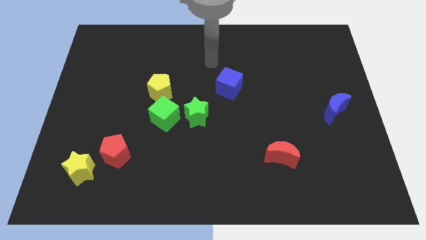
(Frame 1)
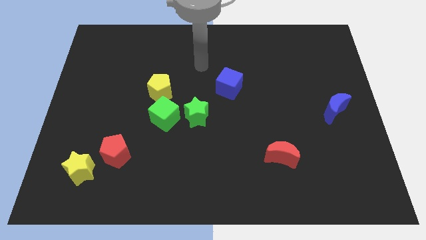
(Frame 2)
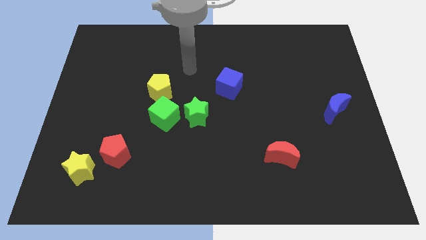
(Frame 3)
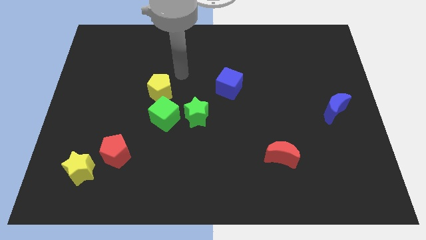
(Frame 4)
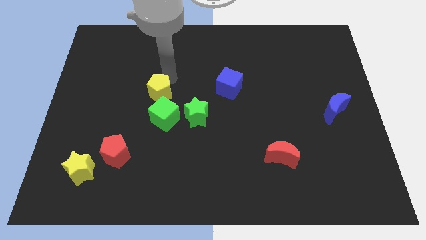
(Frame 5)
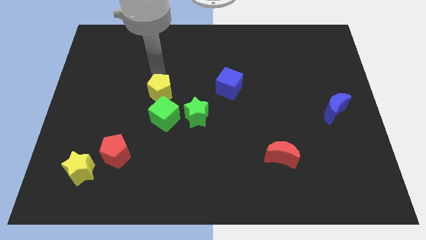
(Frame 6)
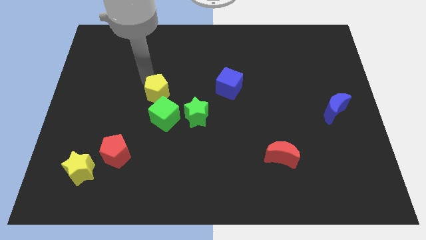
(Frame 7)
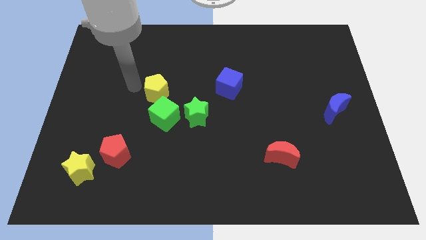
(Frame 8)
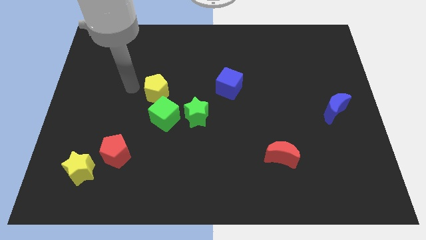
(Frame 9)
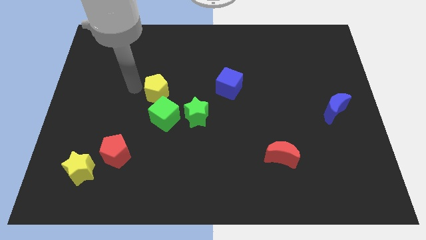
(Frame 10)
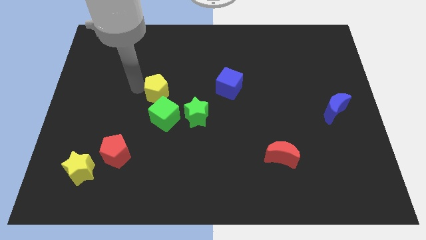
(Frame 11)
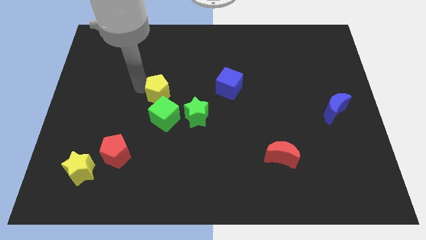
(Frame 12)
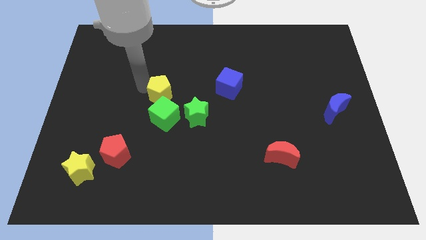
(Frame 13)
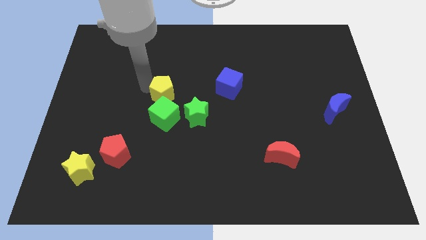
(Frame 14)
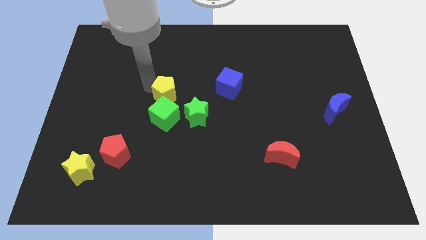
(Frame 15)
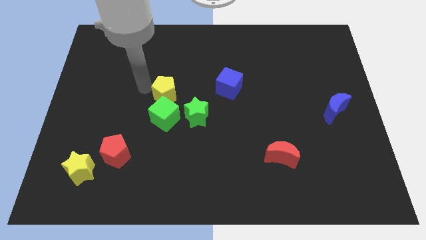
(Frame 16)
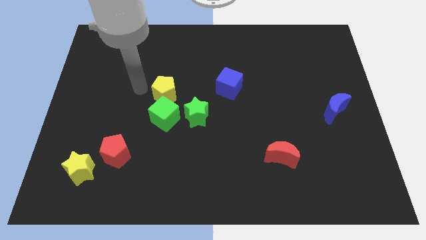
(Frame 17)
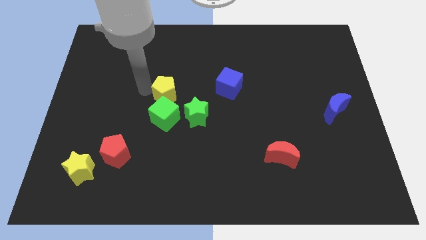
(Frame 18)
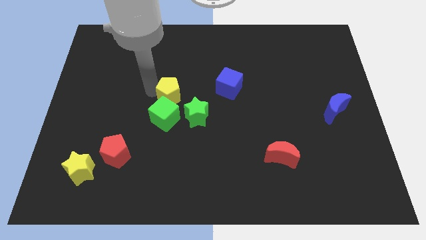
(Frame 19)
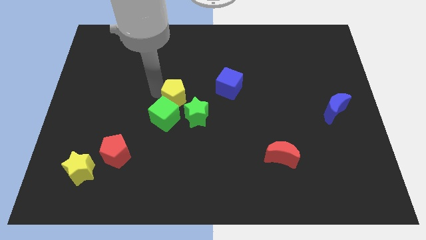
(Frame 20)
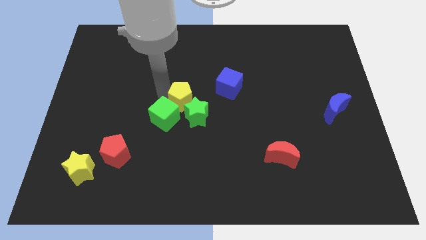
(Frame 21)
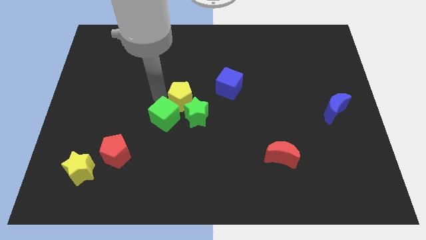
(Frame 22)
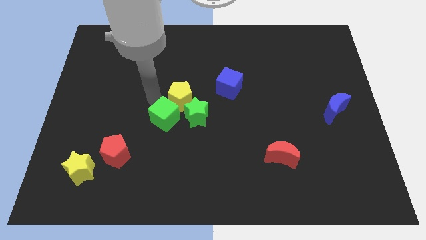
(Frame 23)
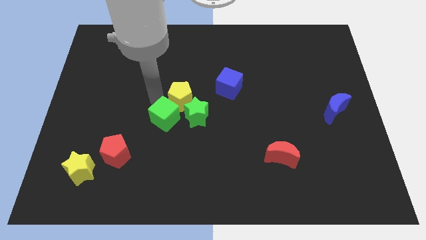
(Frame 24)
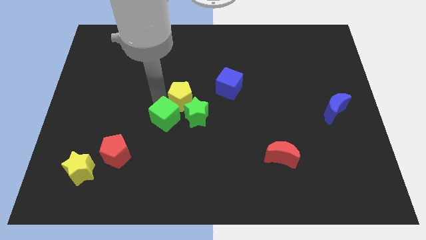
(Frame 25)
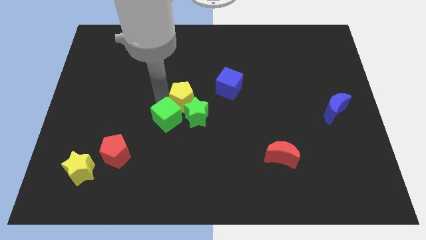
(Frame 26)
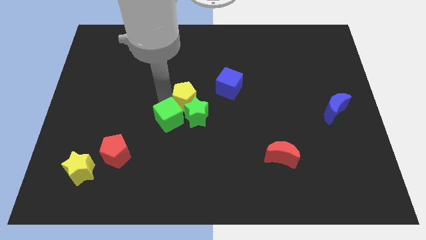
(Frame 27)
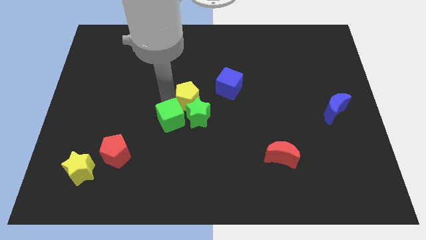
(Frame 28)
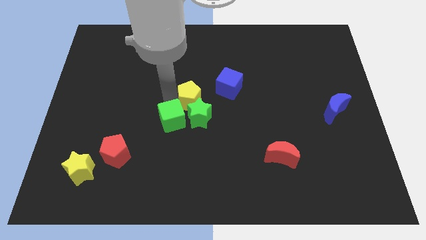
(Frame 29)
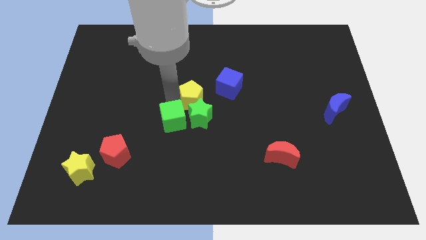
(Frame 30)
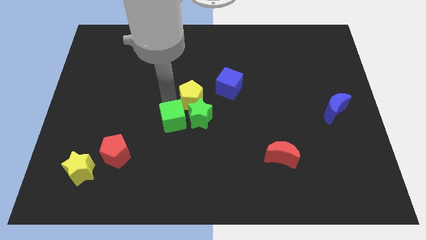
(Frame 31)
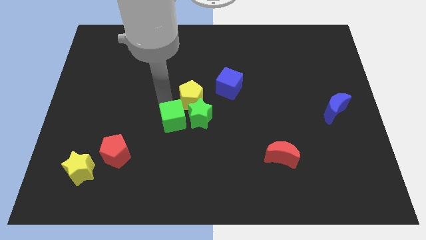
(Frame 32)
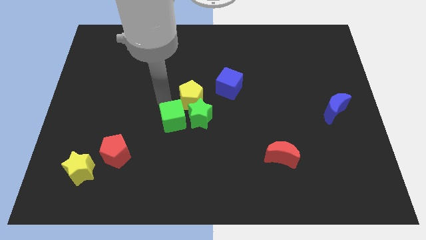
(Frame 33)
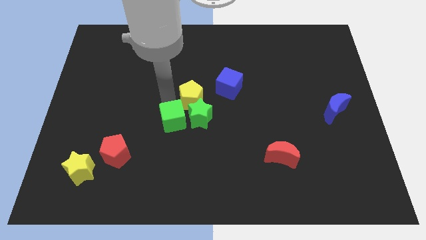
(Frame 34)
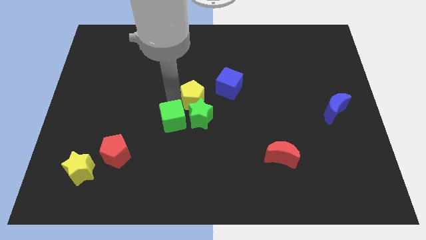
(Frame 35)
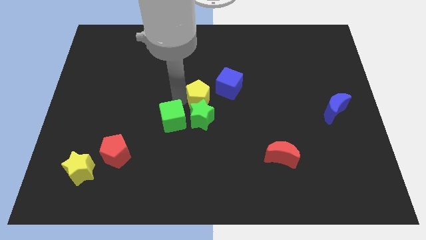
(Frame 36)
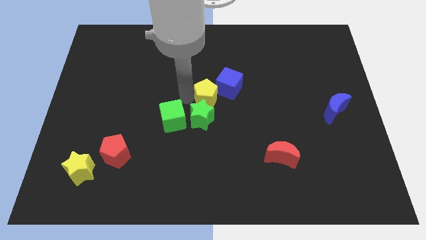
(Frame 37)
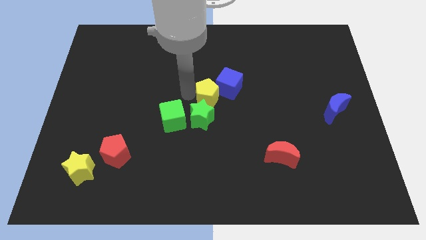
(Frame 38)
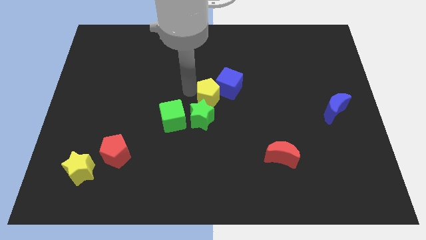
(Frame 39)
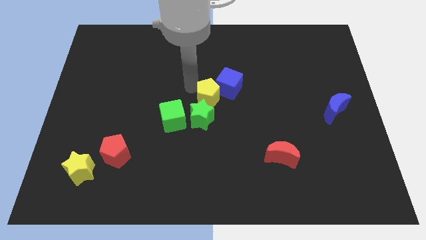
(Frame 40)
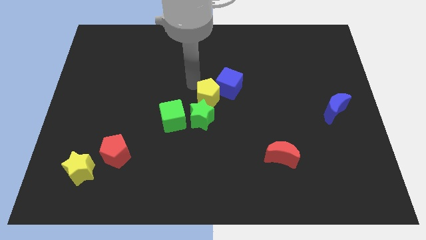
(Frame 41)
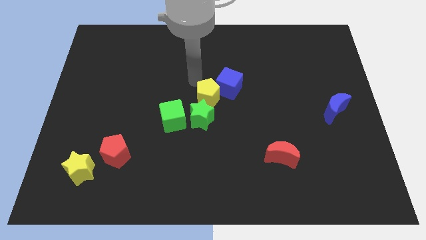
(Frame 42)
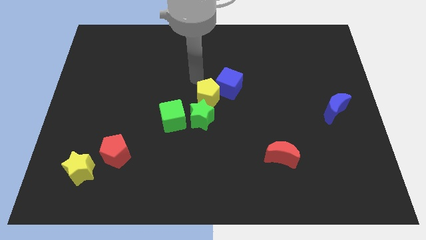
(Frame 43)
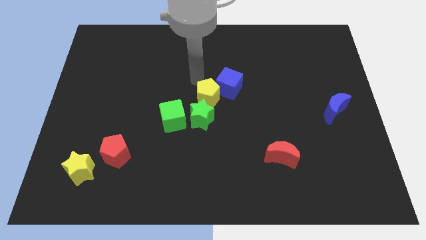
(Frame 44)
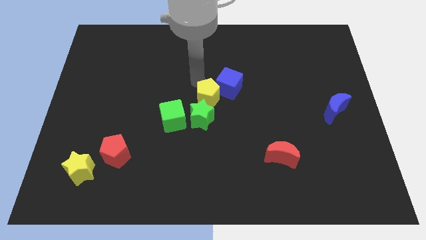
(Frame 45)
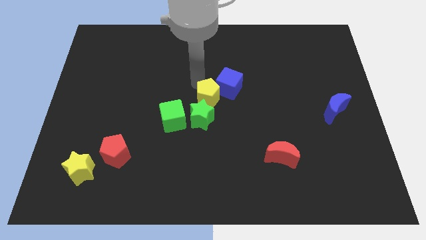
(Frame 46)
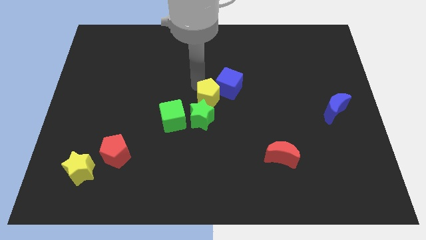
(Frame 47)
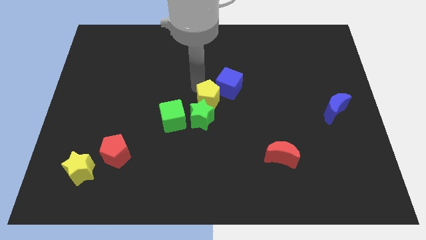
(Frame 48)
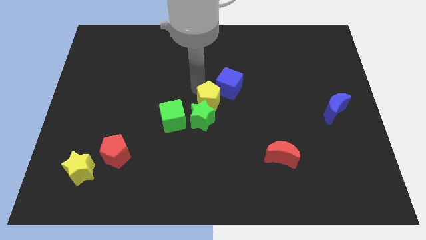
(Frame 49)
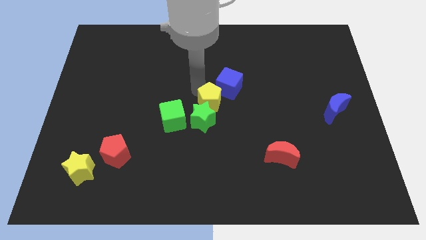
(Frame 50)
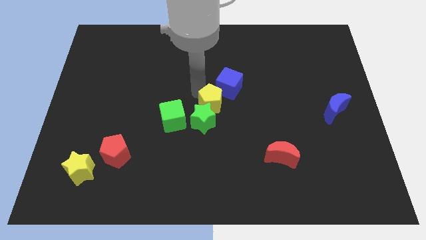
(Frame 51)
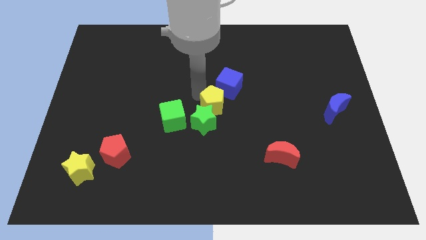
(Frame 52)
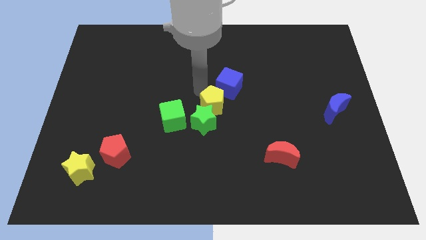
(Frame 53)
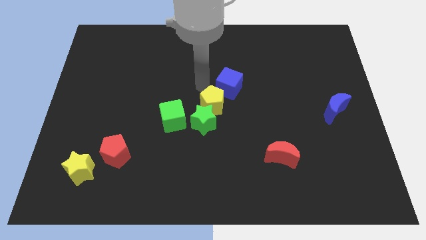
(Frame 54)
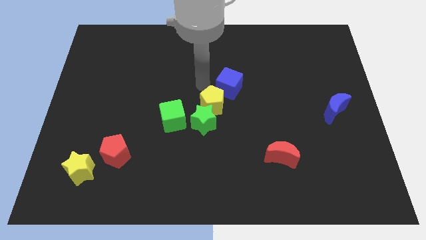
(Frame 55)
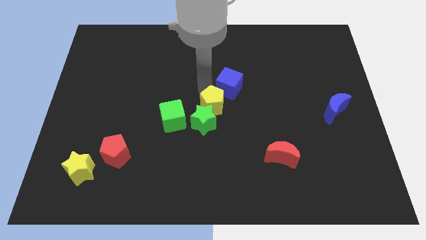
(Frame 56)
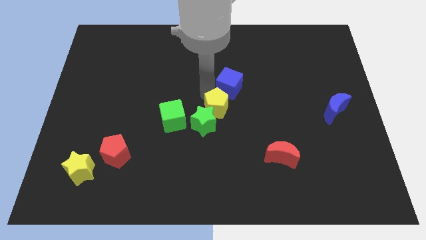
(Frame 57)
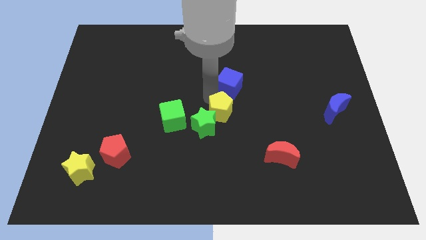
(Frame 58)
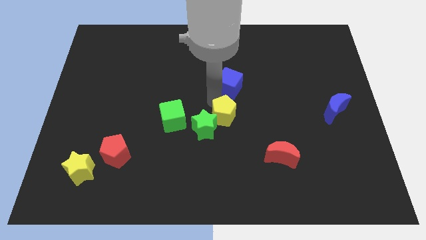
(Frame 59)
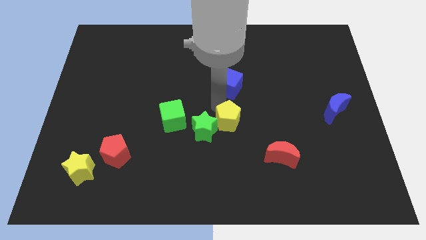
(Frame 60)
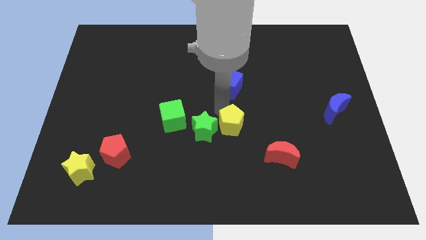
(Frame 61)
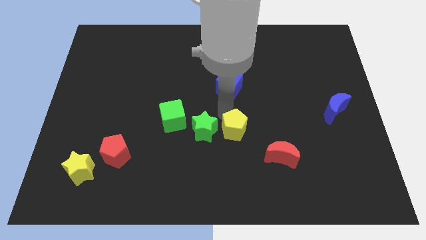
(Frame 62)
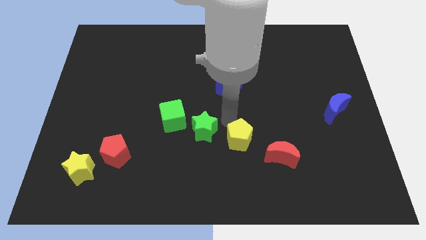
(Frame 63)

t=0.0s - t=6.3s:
slide the yellow pentagon downwards and then right

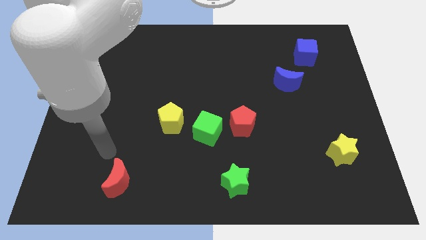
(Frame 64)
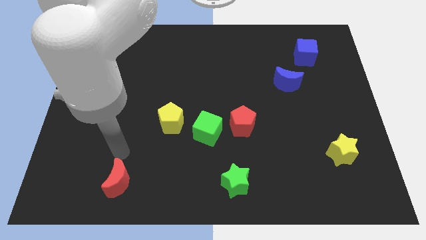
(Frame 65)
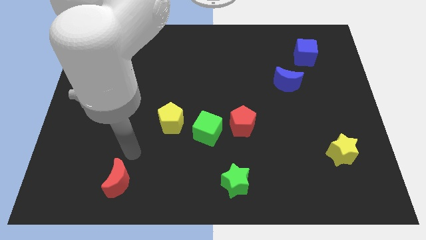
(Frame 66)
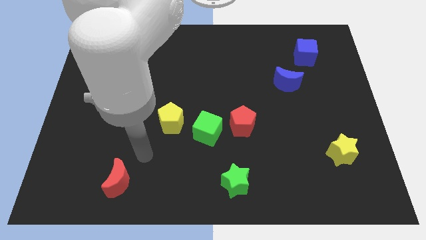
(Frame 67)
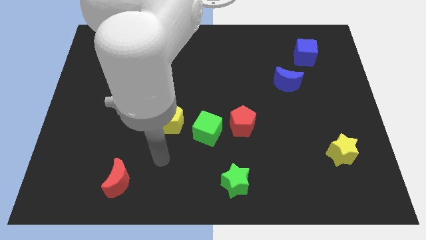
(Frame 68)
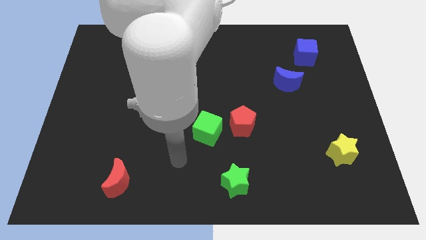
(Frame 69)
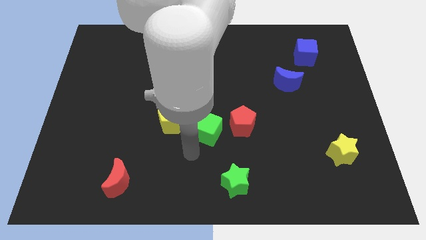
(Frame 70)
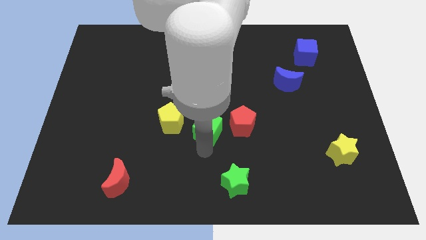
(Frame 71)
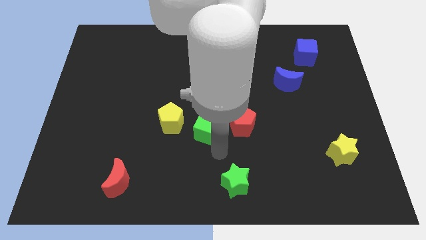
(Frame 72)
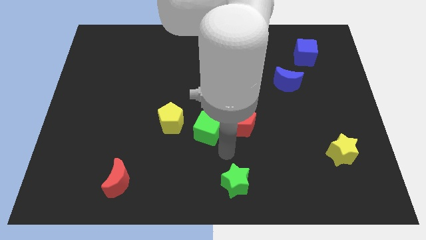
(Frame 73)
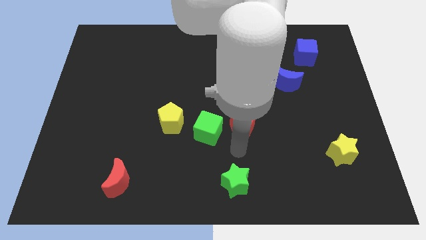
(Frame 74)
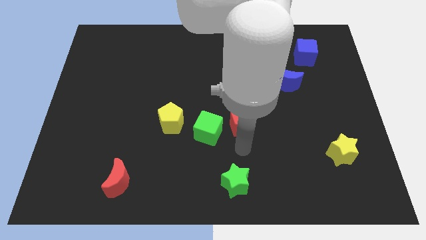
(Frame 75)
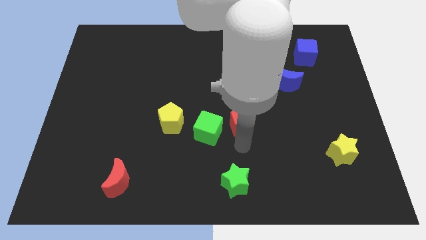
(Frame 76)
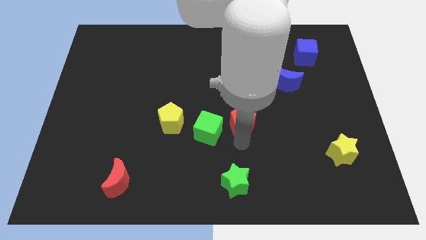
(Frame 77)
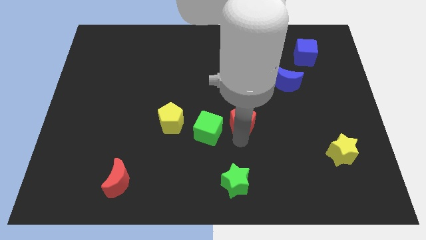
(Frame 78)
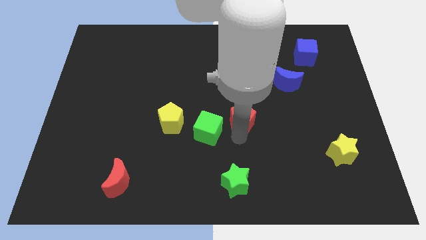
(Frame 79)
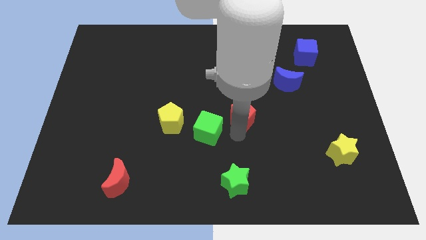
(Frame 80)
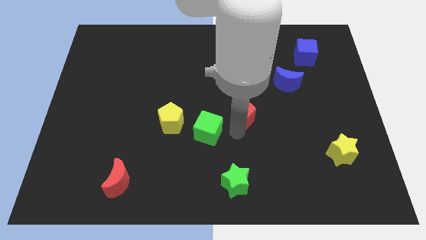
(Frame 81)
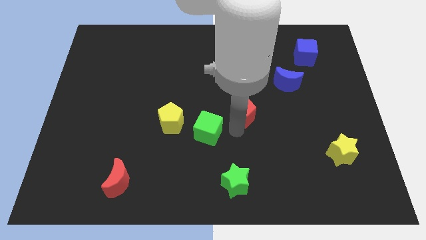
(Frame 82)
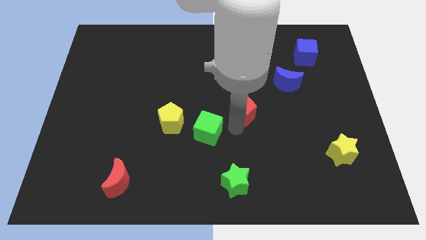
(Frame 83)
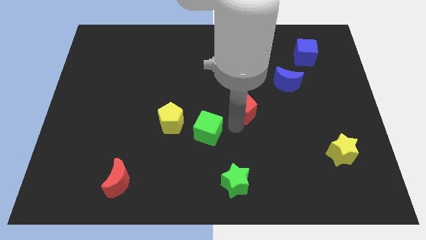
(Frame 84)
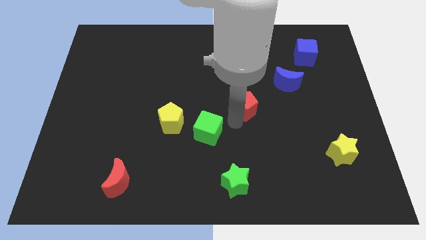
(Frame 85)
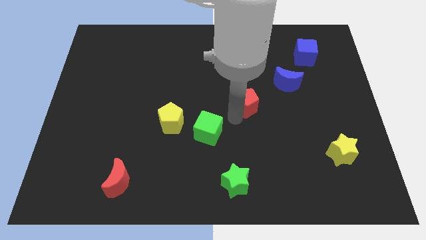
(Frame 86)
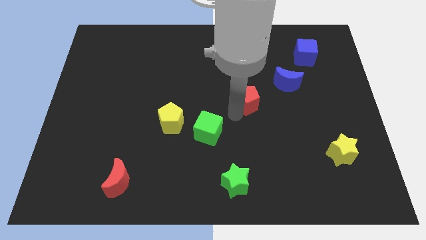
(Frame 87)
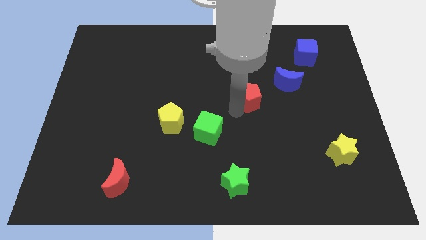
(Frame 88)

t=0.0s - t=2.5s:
slide the red pentagon upwards somewhat
